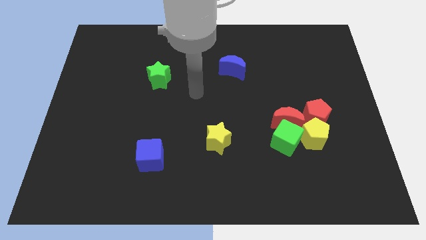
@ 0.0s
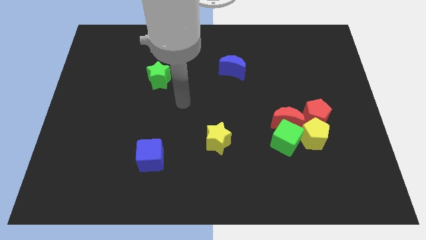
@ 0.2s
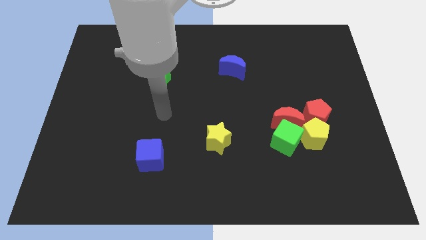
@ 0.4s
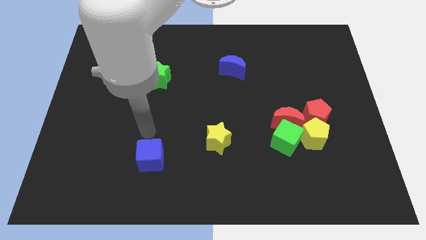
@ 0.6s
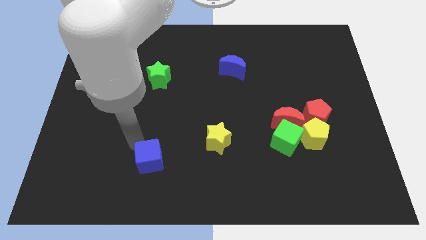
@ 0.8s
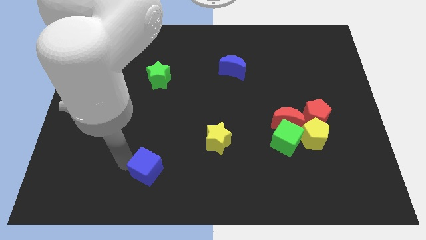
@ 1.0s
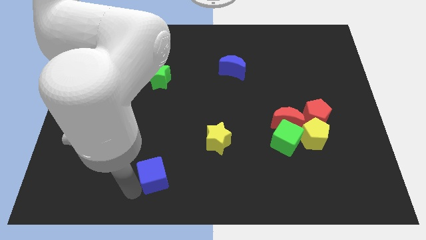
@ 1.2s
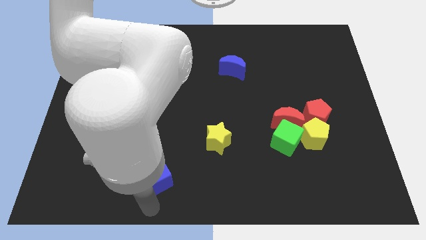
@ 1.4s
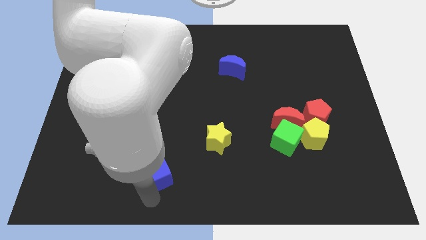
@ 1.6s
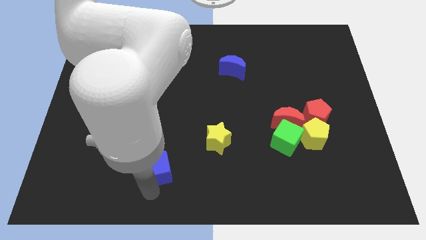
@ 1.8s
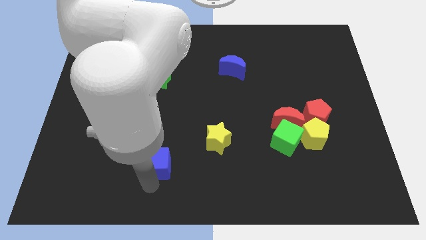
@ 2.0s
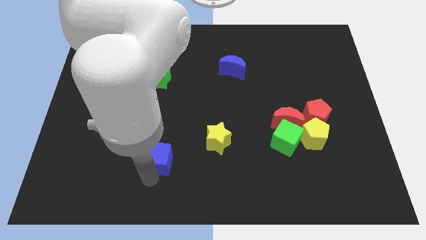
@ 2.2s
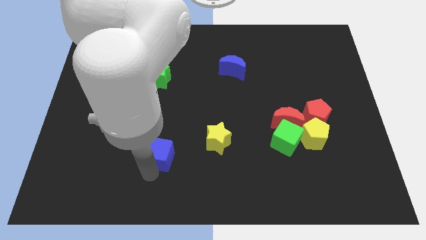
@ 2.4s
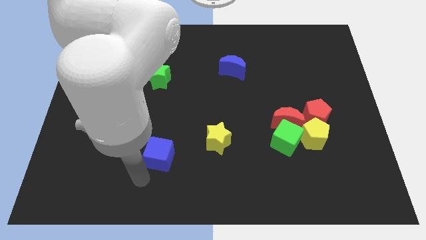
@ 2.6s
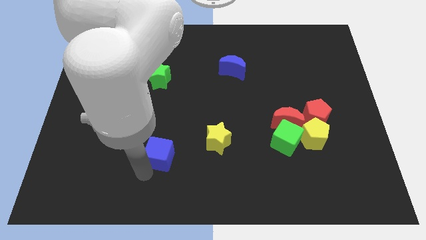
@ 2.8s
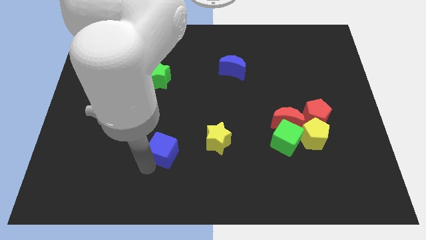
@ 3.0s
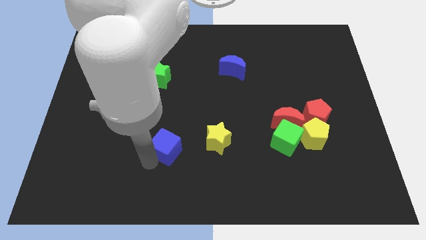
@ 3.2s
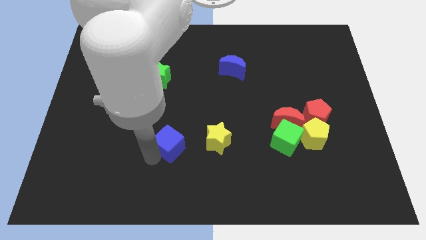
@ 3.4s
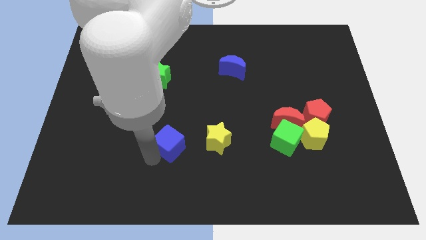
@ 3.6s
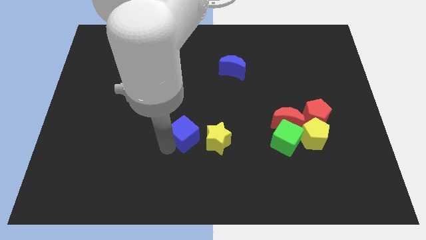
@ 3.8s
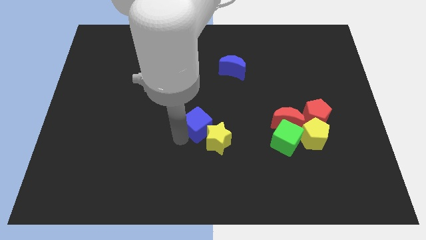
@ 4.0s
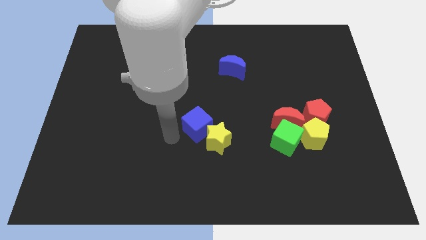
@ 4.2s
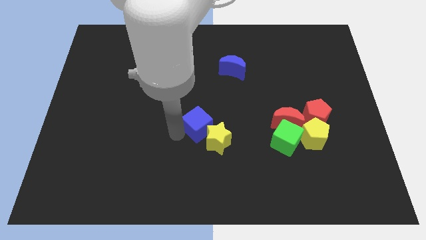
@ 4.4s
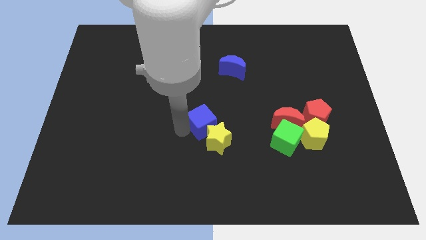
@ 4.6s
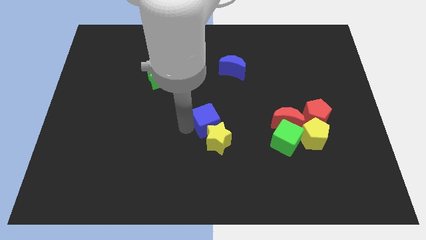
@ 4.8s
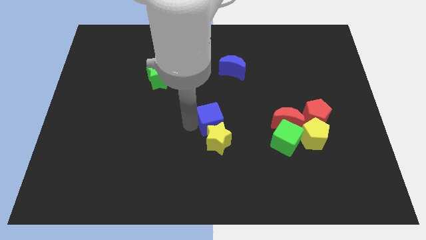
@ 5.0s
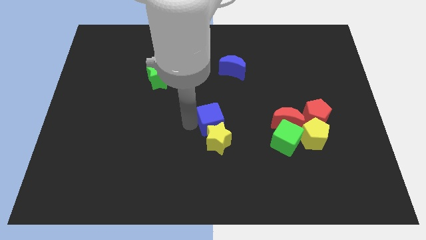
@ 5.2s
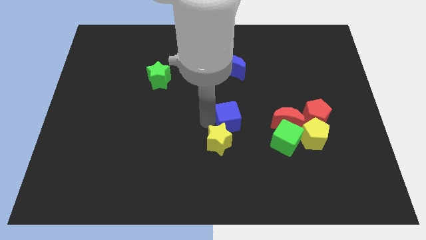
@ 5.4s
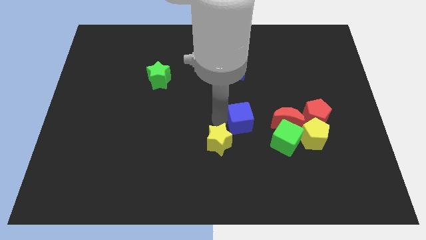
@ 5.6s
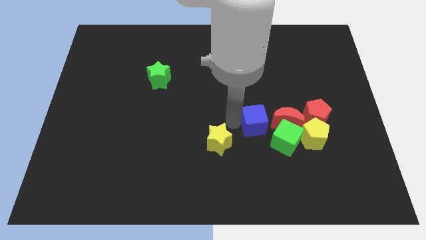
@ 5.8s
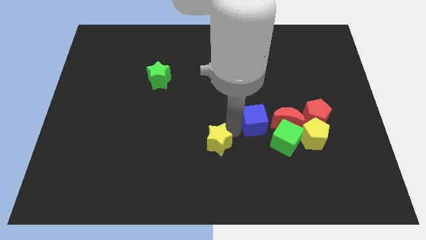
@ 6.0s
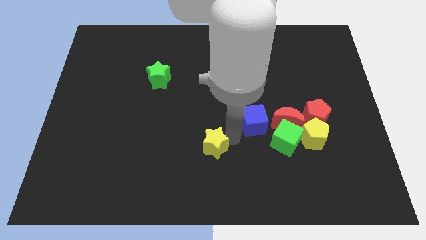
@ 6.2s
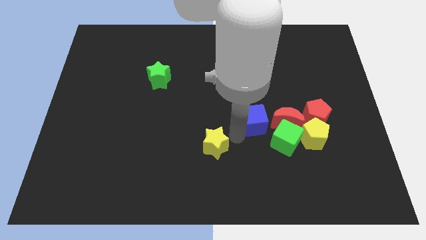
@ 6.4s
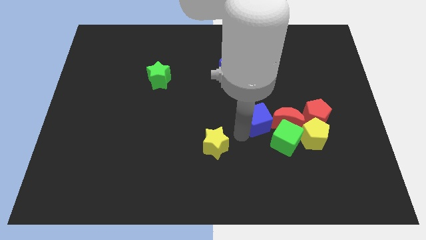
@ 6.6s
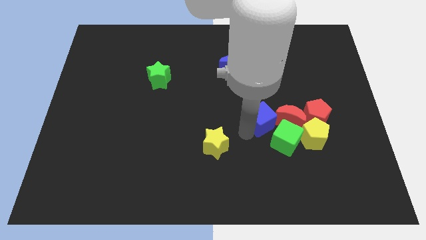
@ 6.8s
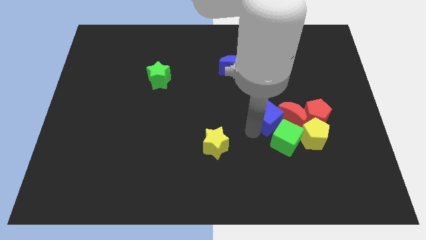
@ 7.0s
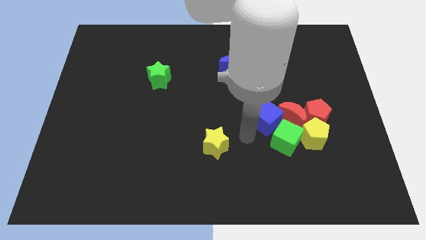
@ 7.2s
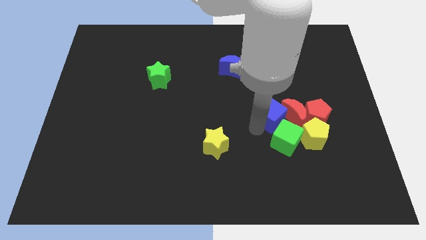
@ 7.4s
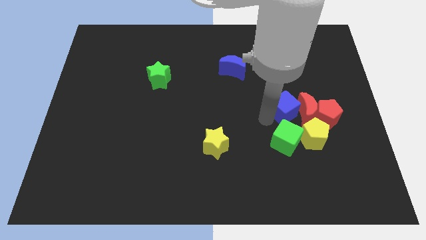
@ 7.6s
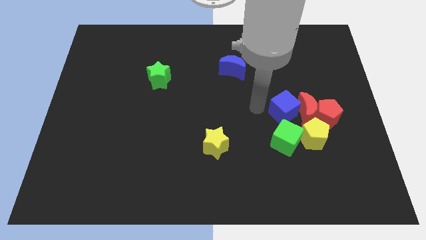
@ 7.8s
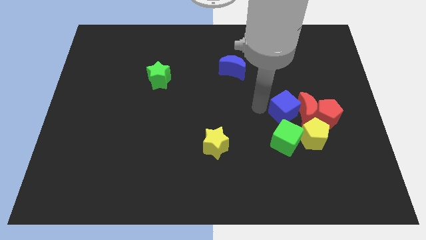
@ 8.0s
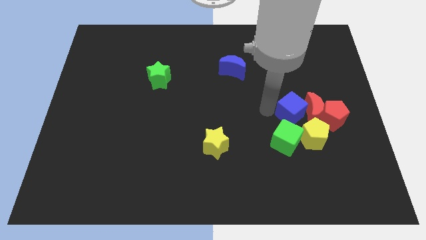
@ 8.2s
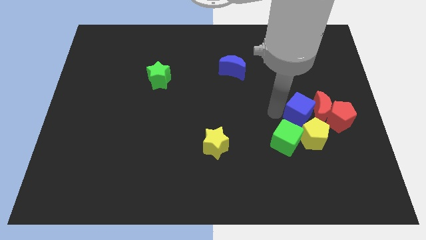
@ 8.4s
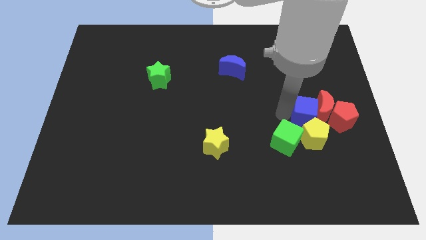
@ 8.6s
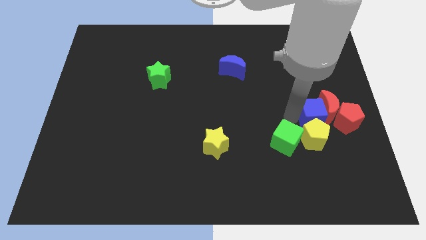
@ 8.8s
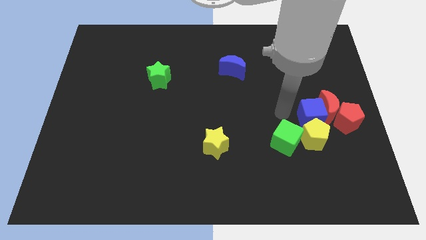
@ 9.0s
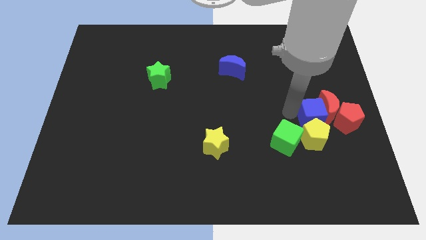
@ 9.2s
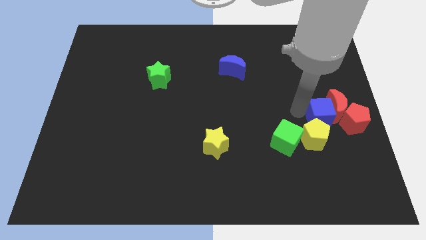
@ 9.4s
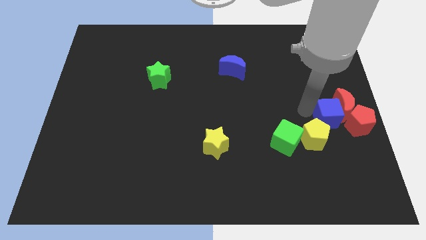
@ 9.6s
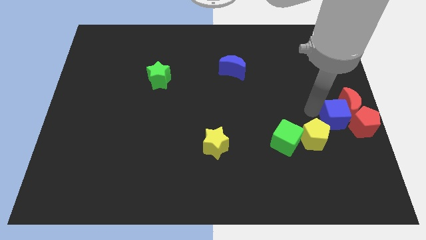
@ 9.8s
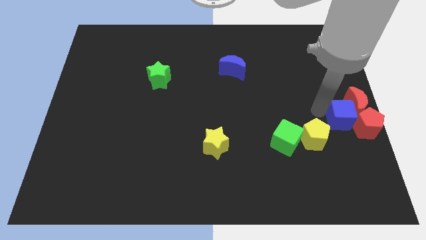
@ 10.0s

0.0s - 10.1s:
put the blue cube to the red pentagon

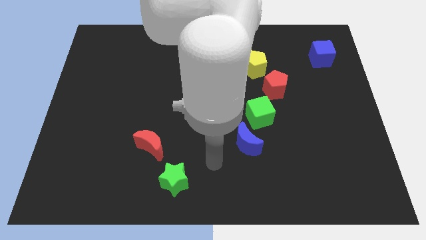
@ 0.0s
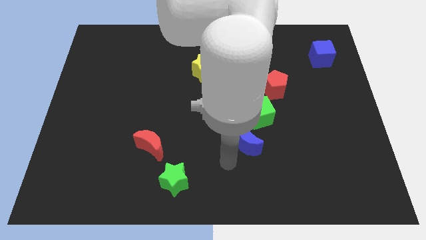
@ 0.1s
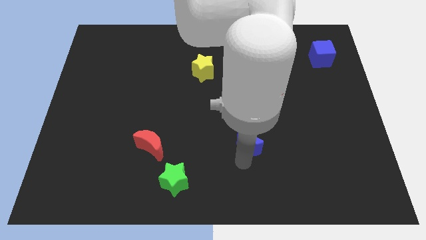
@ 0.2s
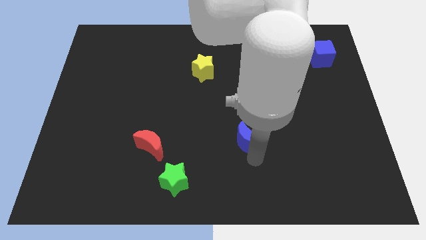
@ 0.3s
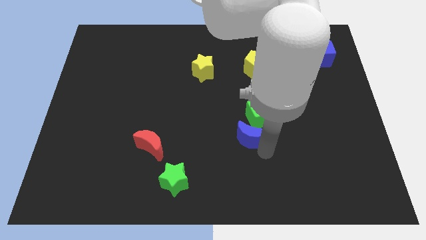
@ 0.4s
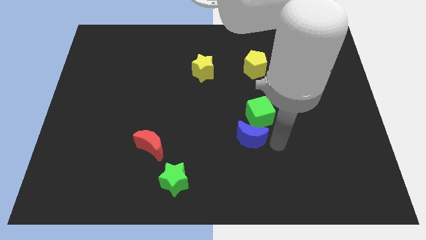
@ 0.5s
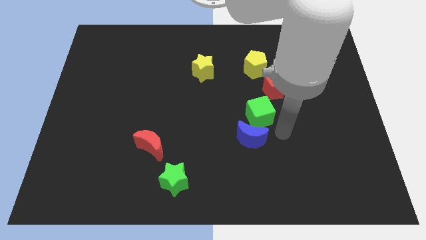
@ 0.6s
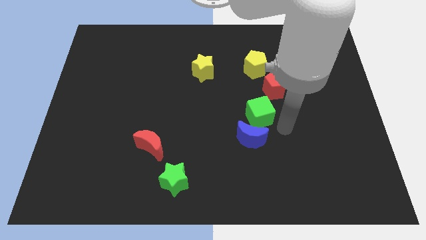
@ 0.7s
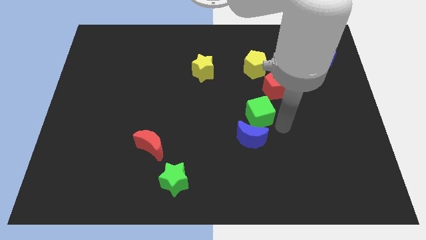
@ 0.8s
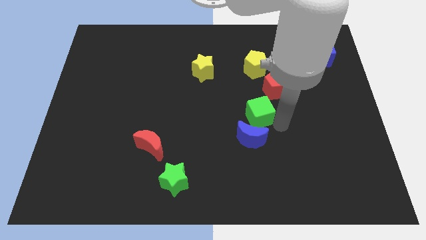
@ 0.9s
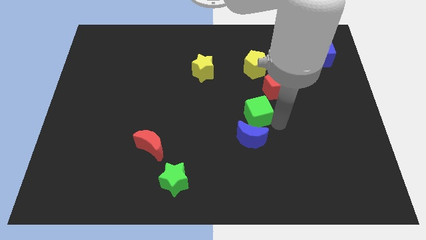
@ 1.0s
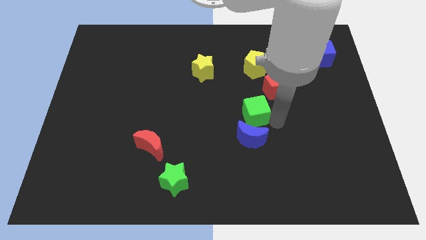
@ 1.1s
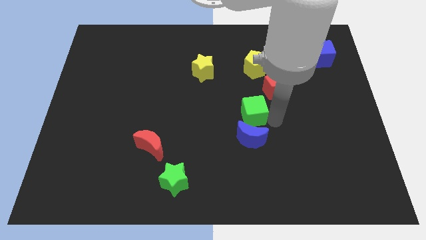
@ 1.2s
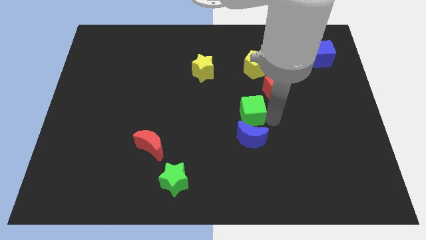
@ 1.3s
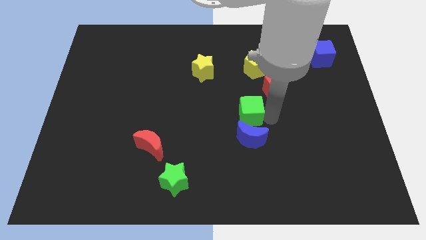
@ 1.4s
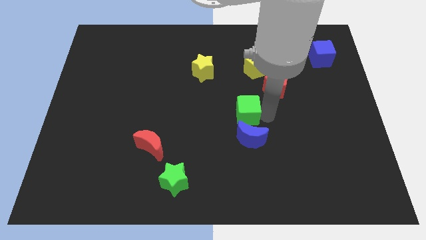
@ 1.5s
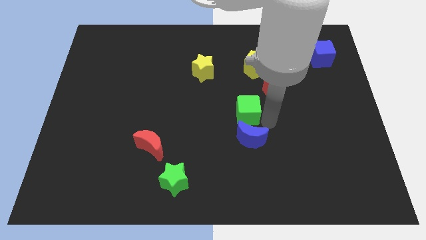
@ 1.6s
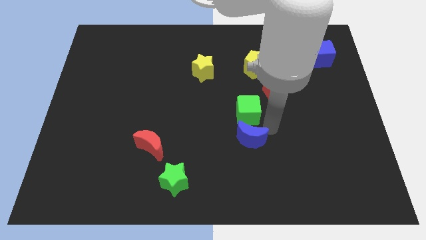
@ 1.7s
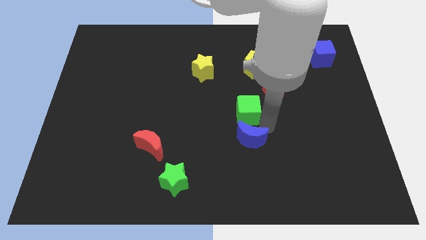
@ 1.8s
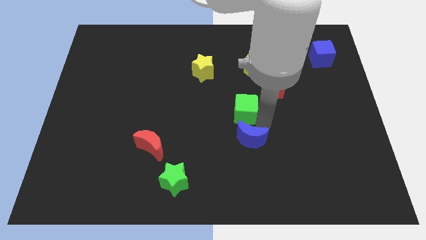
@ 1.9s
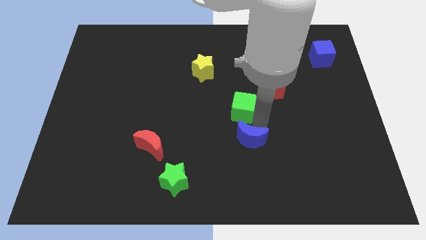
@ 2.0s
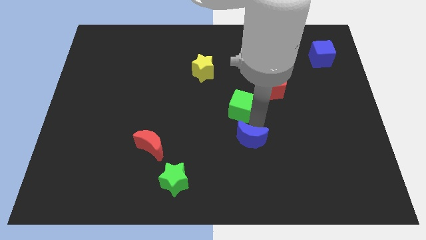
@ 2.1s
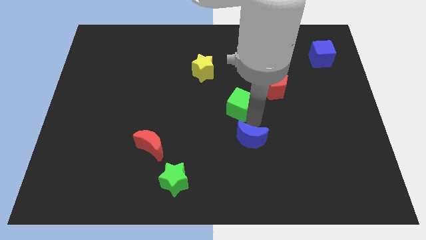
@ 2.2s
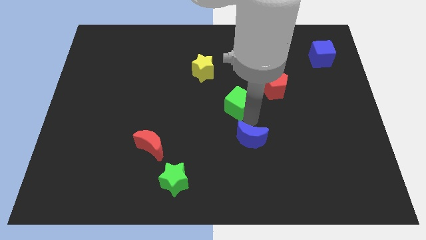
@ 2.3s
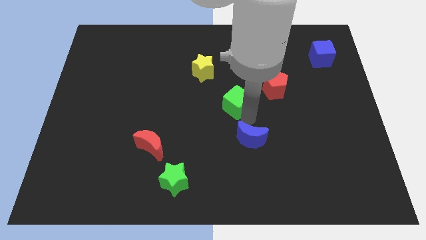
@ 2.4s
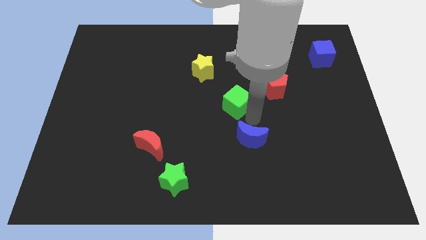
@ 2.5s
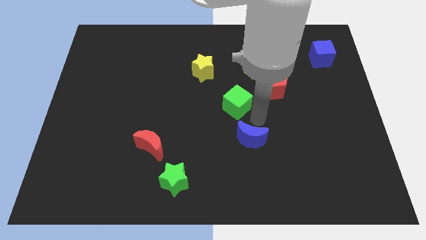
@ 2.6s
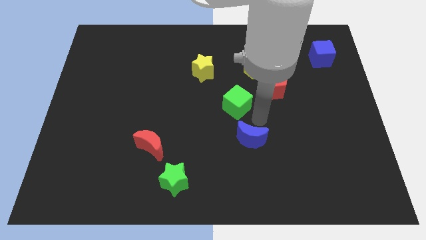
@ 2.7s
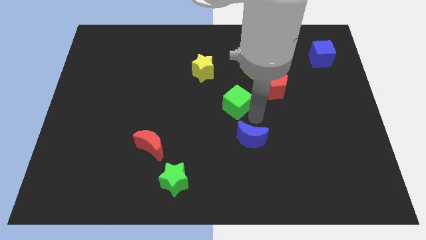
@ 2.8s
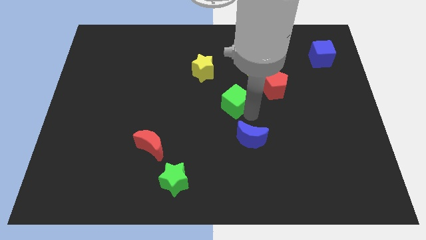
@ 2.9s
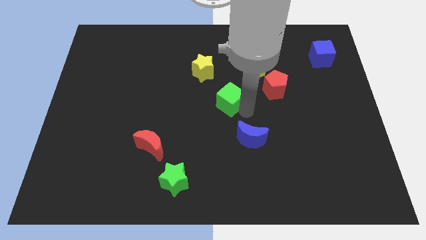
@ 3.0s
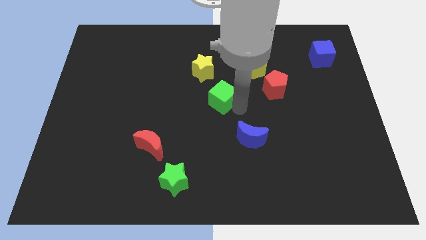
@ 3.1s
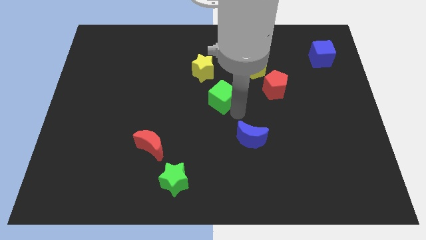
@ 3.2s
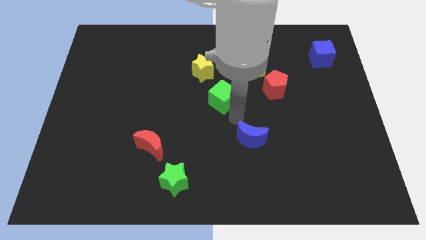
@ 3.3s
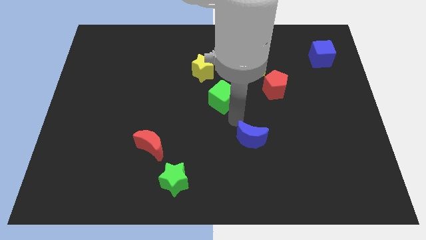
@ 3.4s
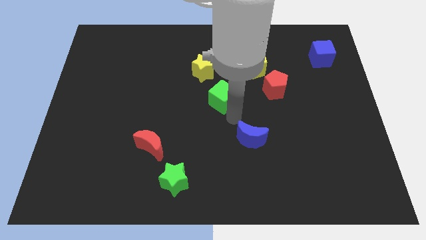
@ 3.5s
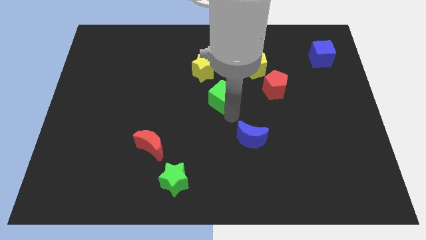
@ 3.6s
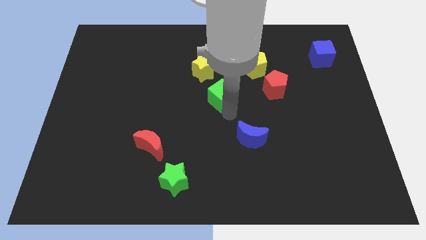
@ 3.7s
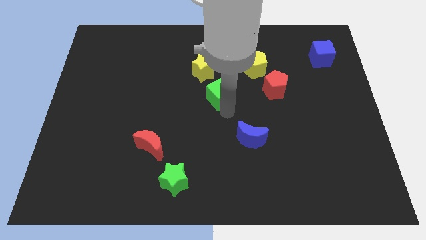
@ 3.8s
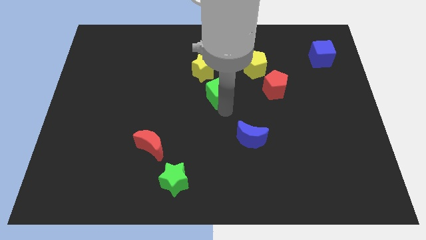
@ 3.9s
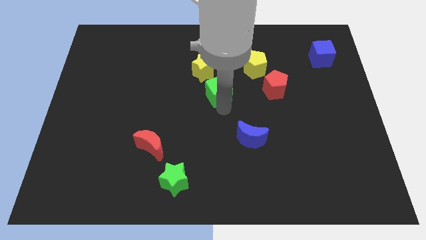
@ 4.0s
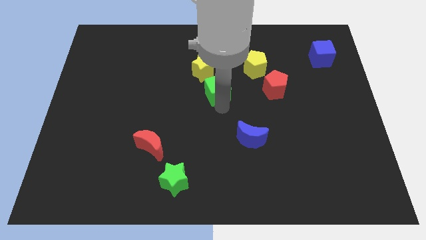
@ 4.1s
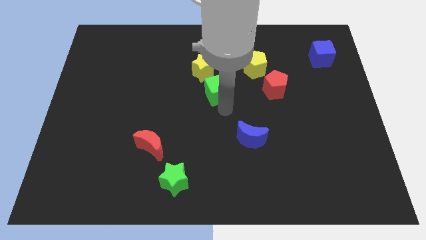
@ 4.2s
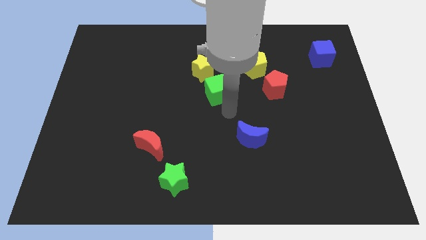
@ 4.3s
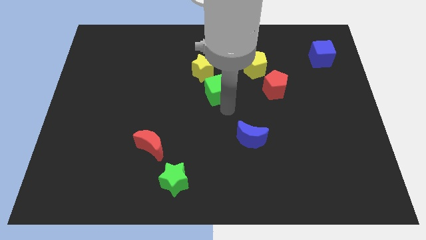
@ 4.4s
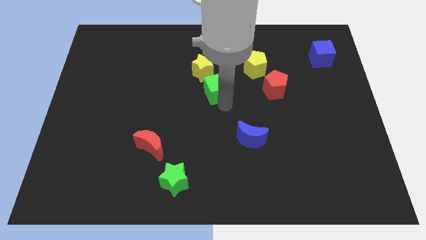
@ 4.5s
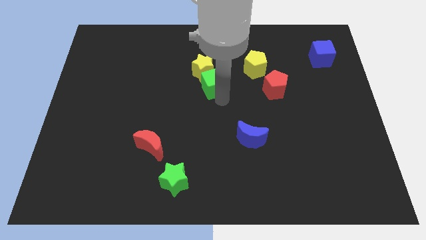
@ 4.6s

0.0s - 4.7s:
slide the green cube next to the yellow star
